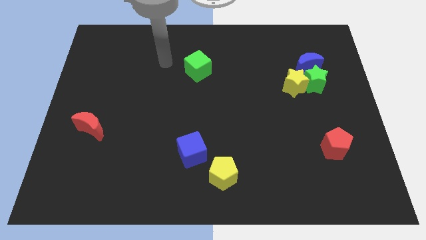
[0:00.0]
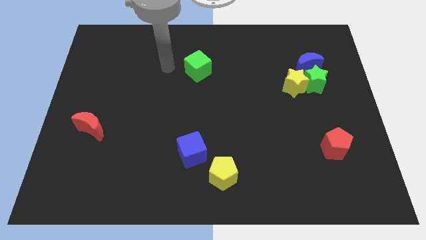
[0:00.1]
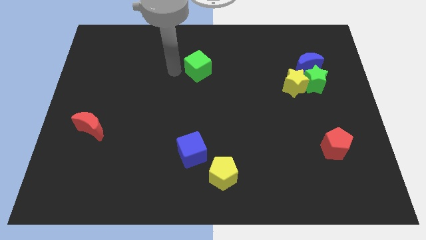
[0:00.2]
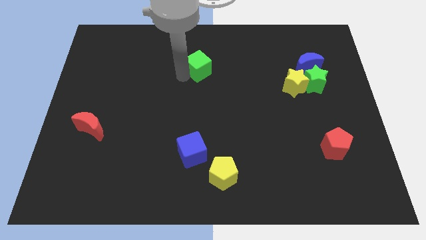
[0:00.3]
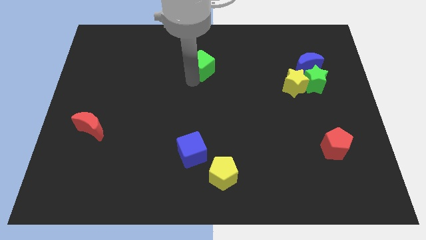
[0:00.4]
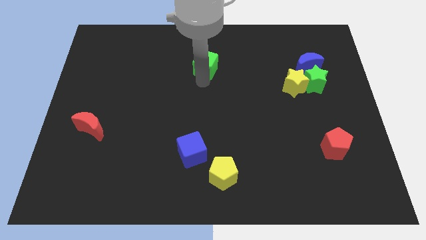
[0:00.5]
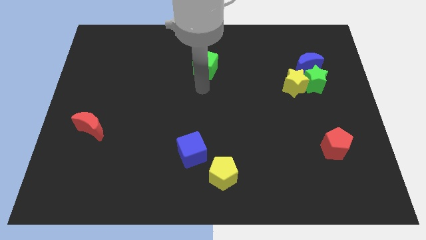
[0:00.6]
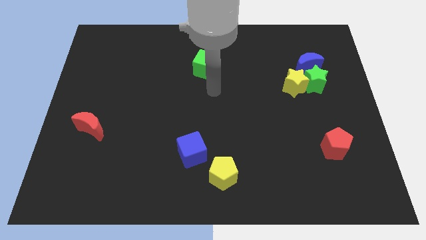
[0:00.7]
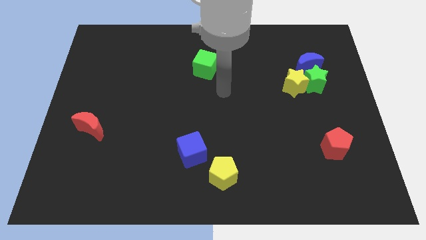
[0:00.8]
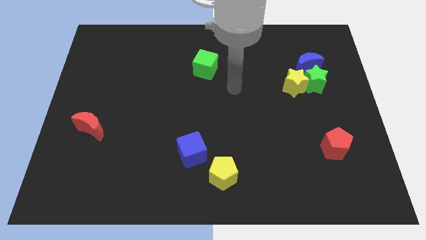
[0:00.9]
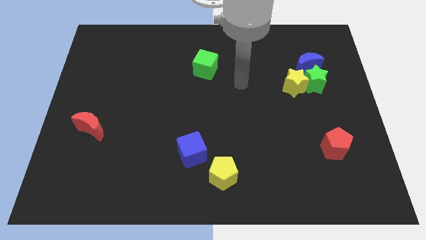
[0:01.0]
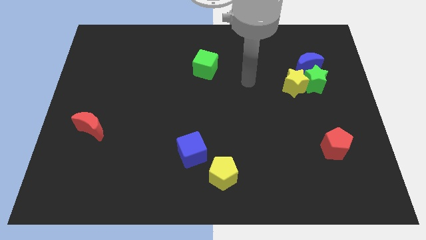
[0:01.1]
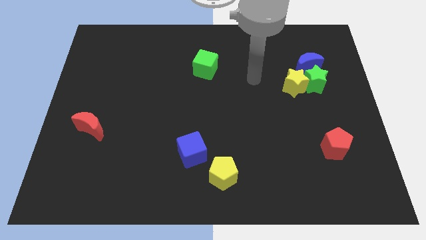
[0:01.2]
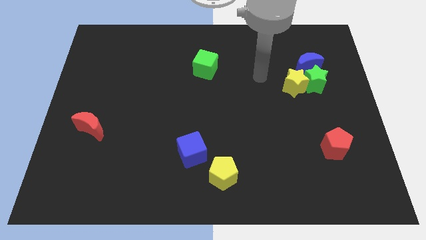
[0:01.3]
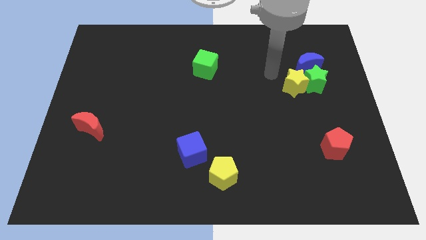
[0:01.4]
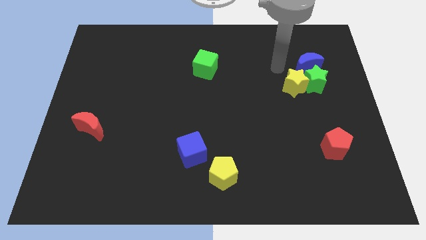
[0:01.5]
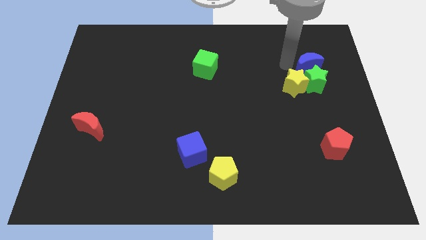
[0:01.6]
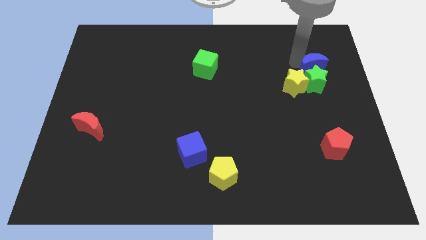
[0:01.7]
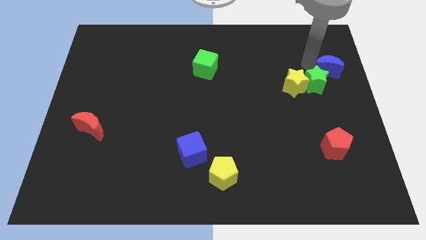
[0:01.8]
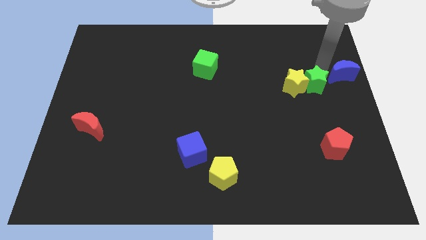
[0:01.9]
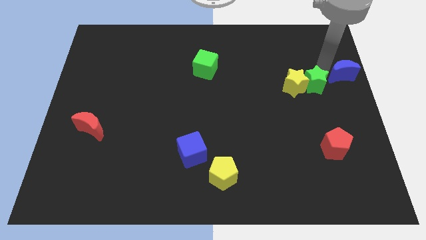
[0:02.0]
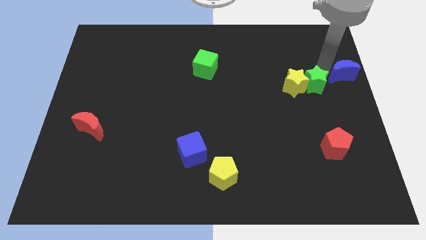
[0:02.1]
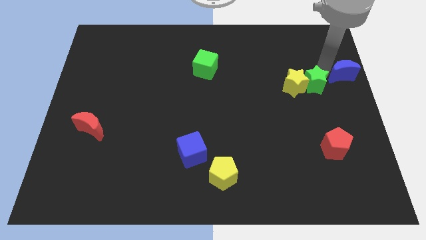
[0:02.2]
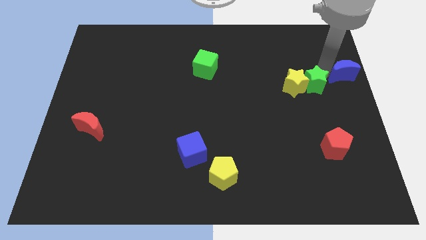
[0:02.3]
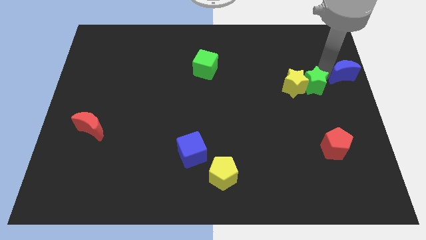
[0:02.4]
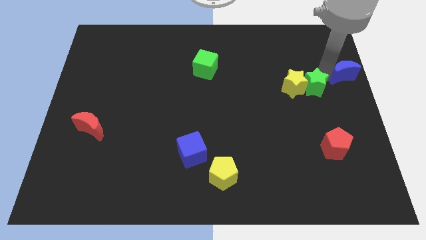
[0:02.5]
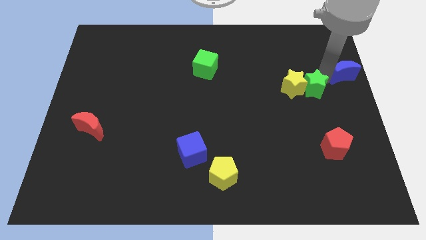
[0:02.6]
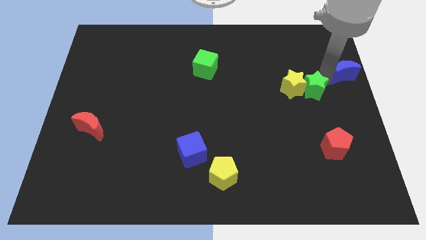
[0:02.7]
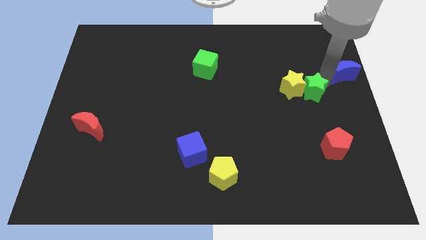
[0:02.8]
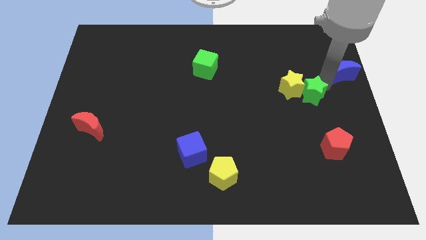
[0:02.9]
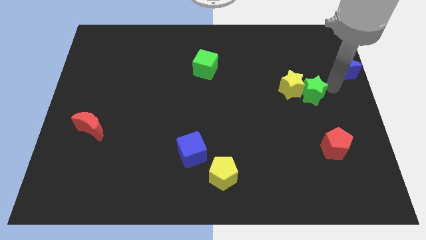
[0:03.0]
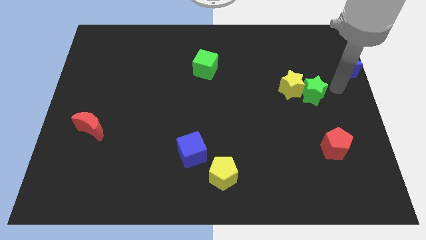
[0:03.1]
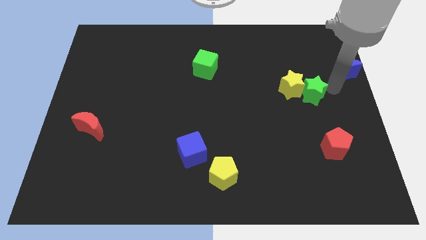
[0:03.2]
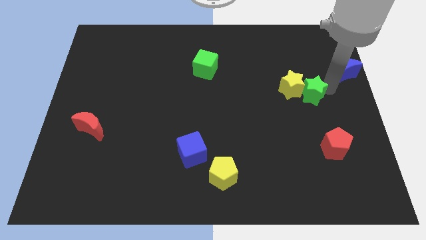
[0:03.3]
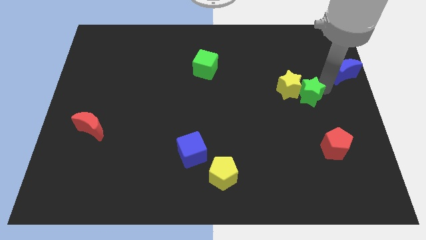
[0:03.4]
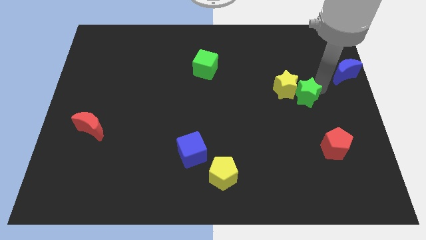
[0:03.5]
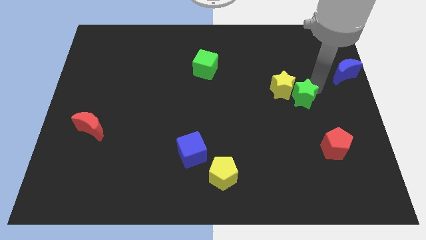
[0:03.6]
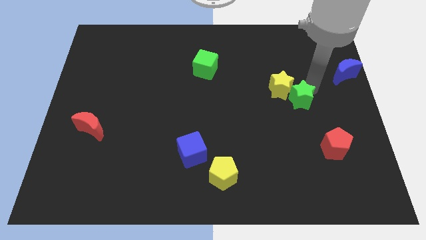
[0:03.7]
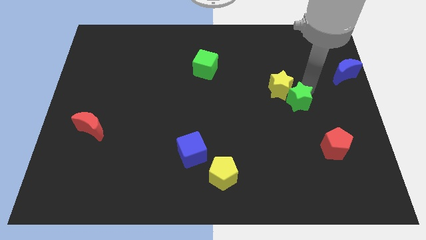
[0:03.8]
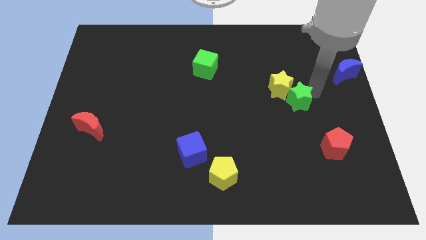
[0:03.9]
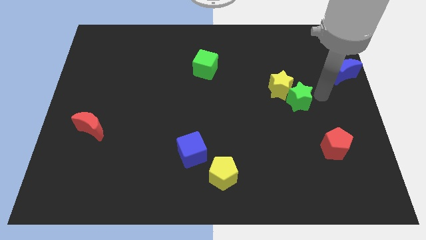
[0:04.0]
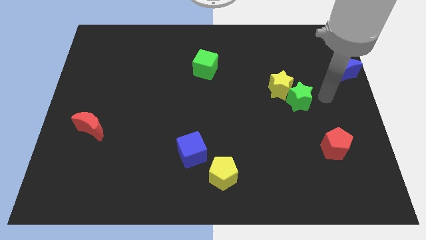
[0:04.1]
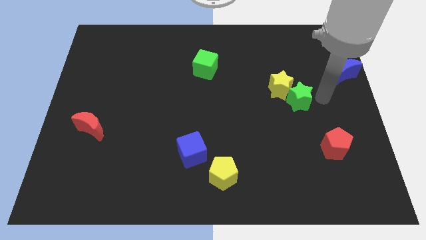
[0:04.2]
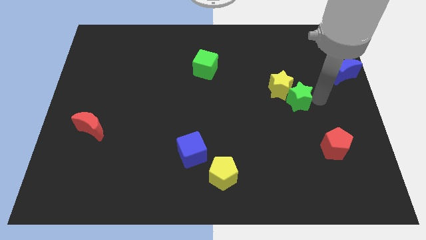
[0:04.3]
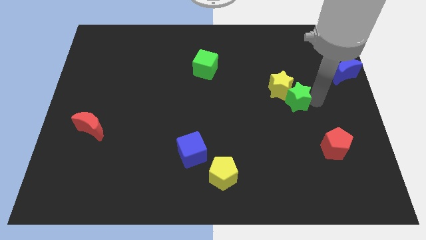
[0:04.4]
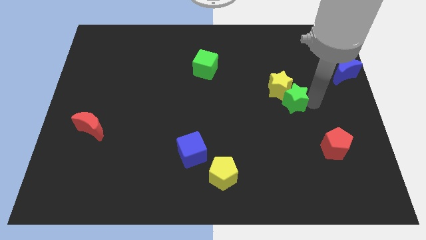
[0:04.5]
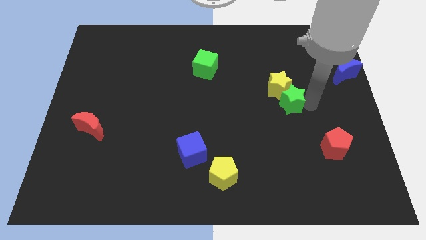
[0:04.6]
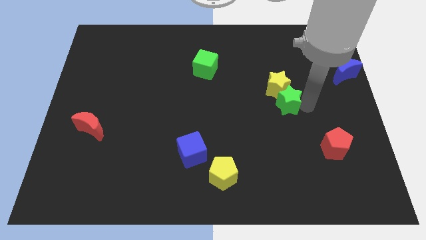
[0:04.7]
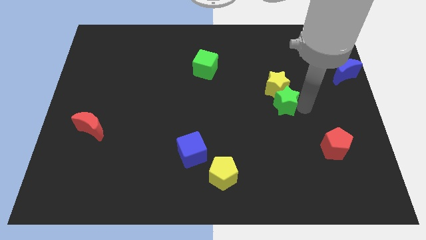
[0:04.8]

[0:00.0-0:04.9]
put the green star diagonally down and to the left of the yellow star

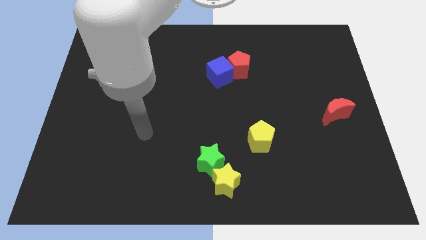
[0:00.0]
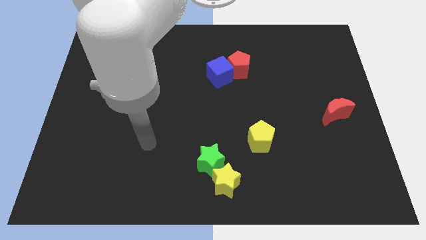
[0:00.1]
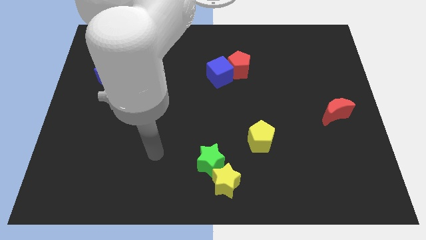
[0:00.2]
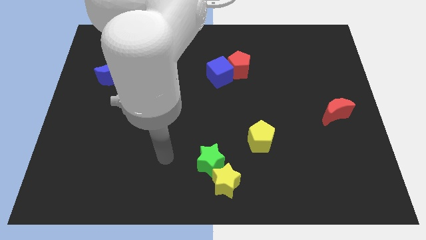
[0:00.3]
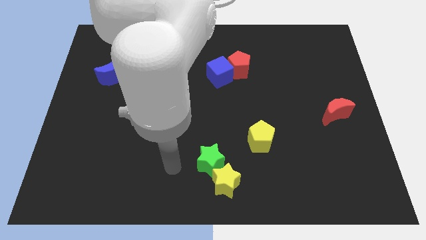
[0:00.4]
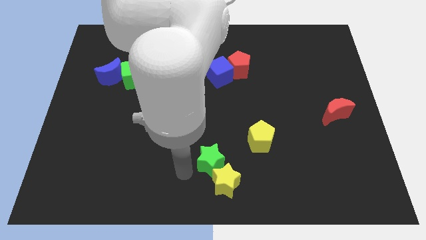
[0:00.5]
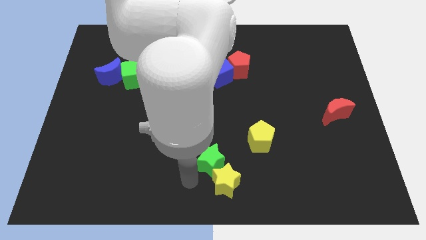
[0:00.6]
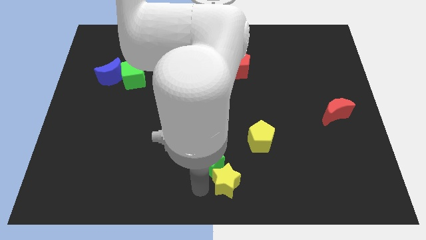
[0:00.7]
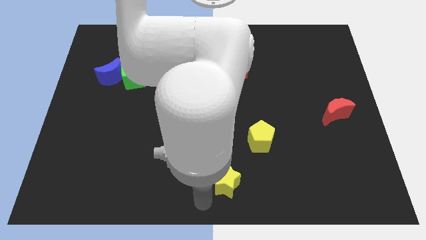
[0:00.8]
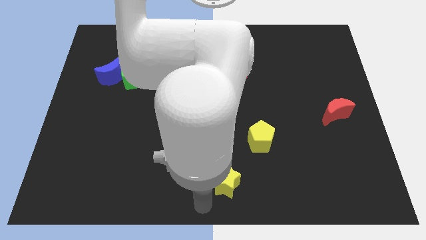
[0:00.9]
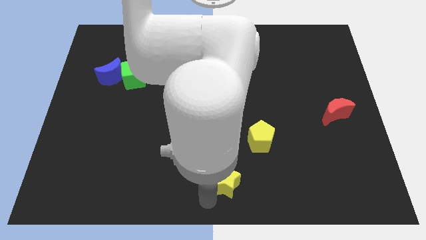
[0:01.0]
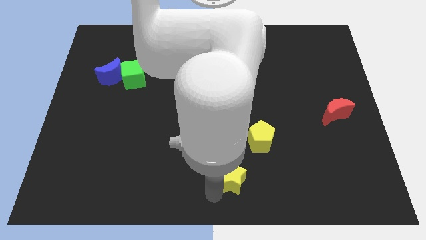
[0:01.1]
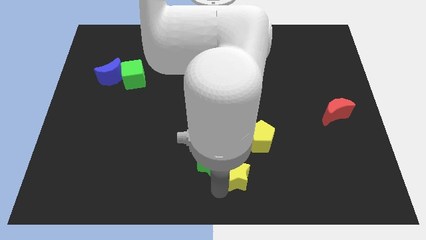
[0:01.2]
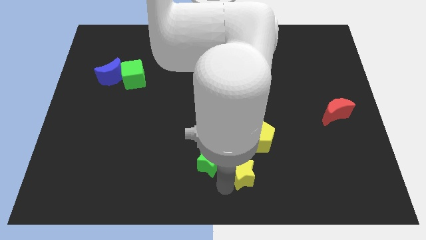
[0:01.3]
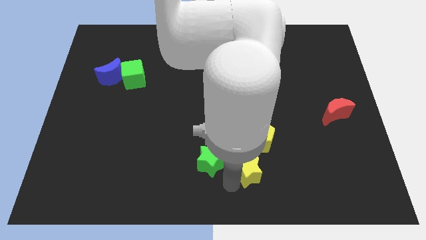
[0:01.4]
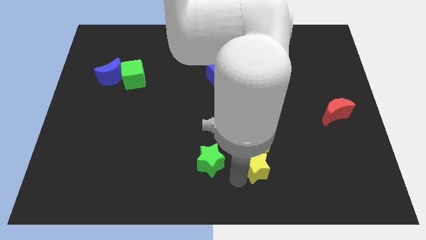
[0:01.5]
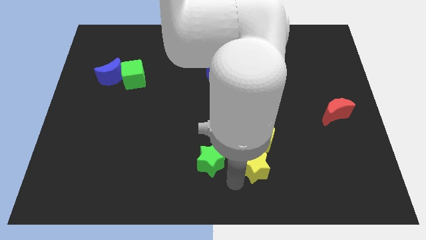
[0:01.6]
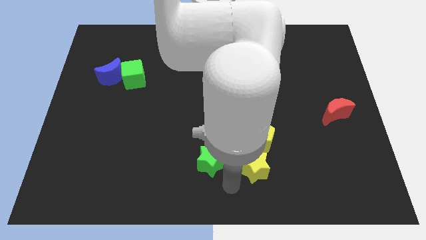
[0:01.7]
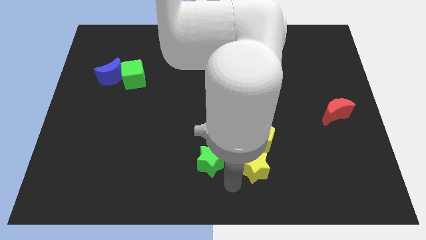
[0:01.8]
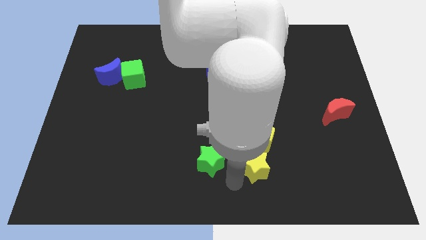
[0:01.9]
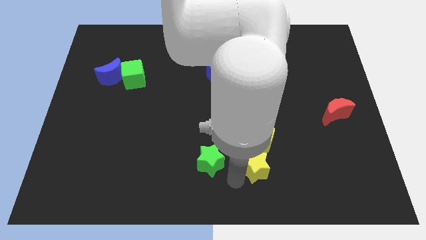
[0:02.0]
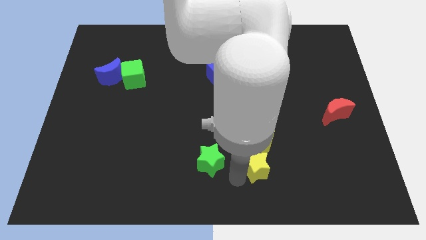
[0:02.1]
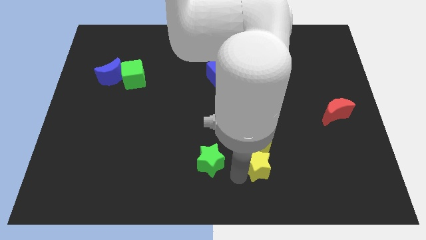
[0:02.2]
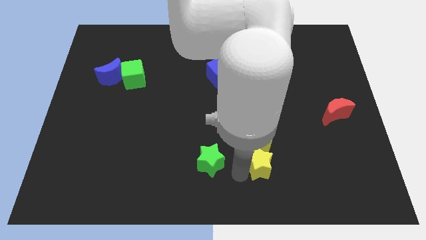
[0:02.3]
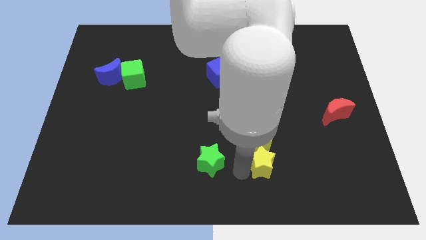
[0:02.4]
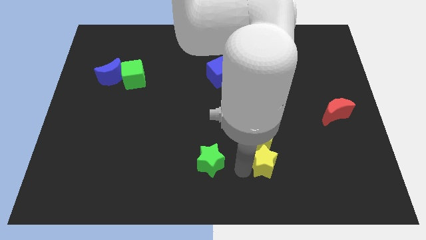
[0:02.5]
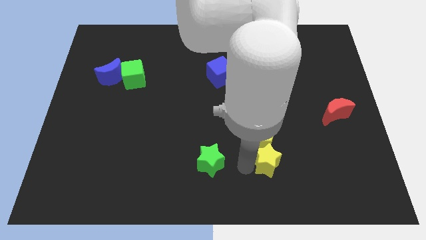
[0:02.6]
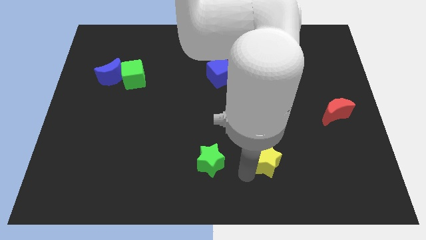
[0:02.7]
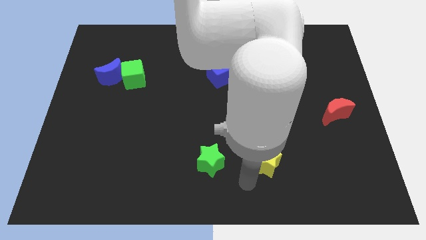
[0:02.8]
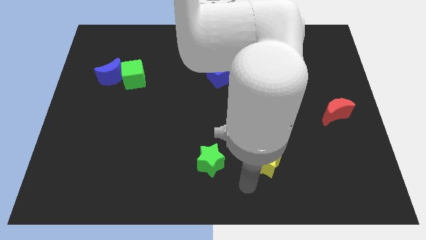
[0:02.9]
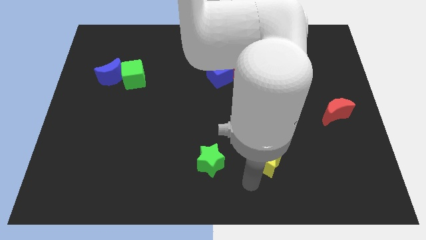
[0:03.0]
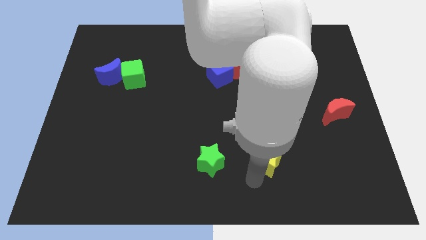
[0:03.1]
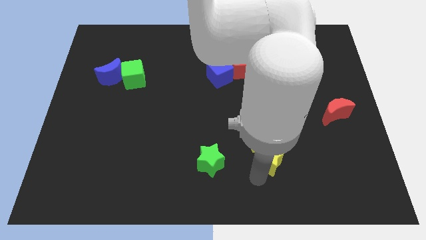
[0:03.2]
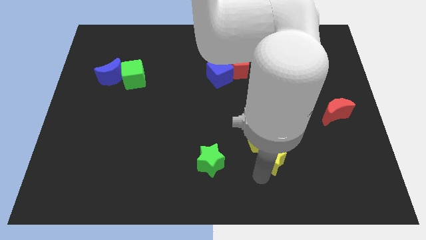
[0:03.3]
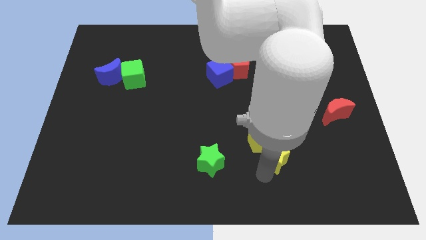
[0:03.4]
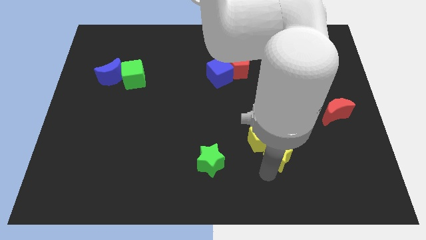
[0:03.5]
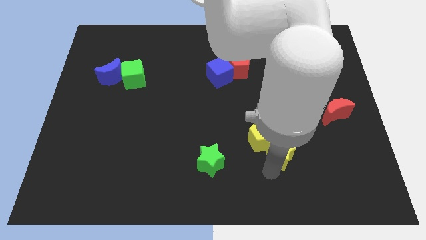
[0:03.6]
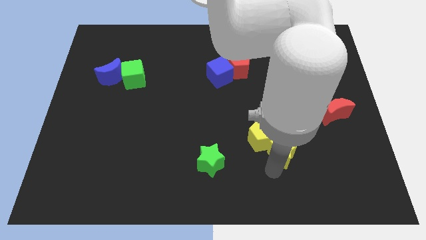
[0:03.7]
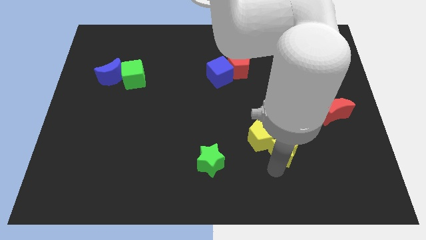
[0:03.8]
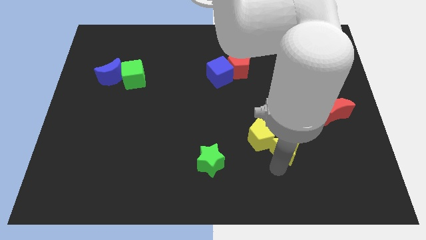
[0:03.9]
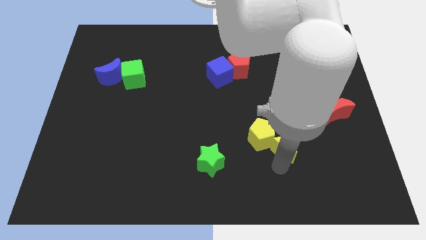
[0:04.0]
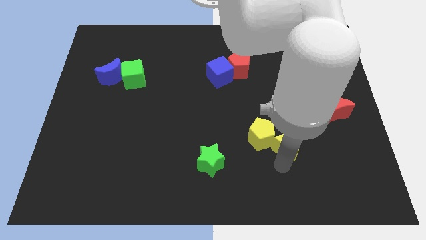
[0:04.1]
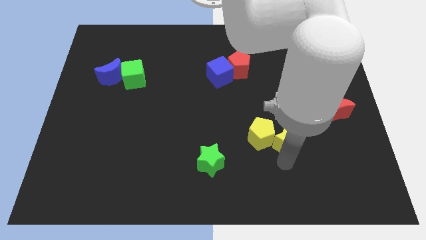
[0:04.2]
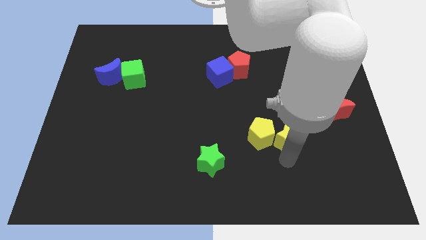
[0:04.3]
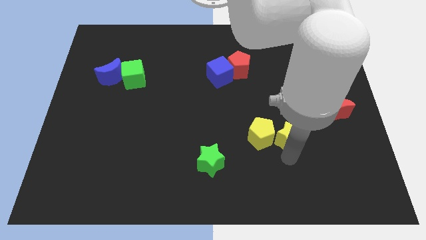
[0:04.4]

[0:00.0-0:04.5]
slide the yellow star diagonally up and to the right of the yellow pentagon
